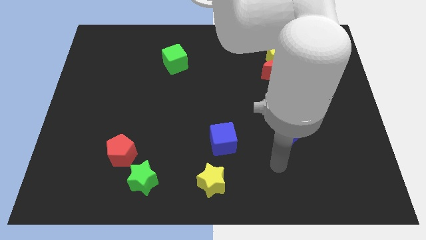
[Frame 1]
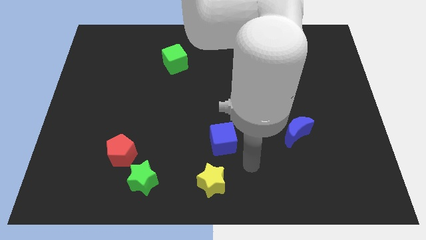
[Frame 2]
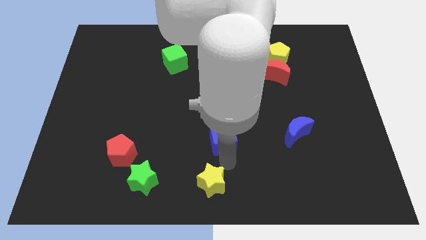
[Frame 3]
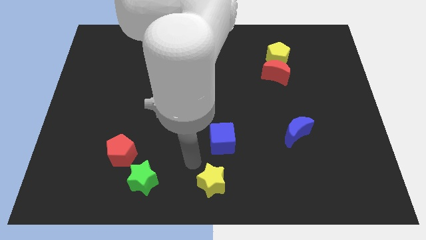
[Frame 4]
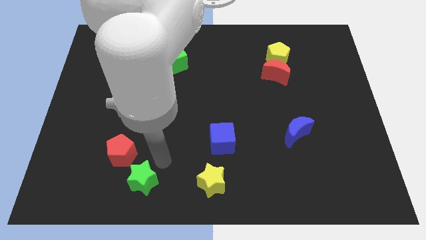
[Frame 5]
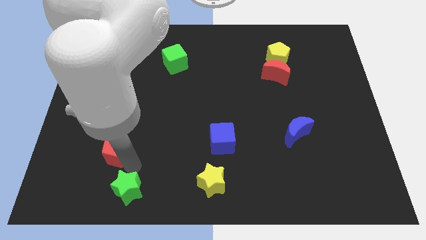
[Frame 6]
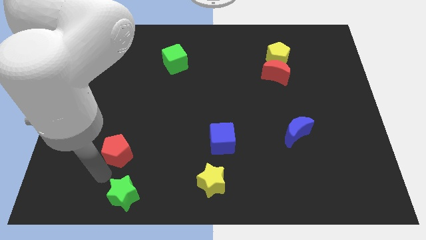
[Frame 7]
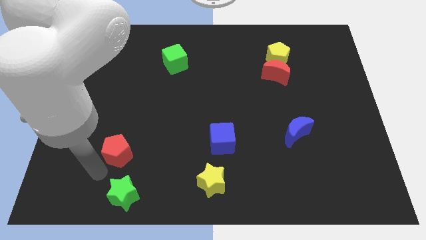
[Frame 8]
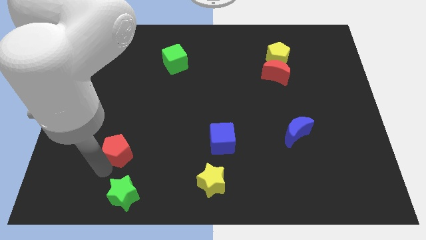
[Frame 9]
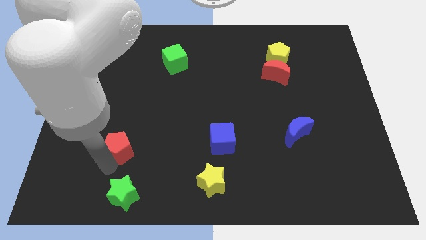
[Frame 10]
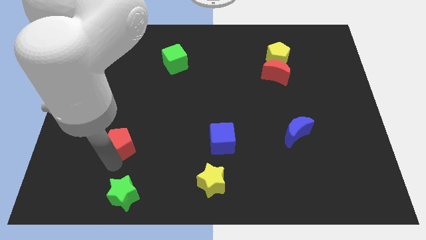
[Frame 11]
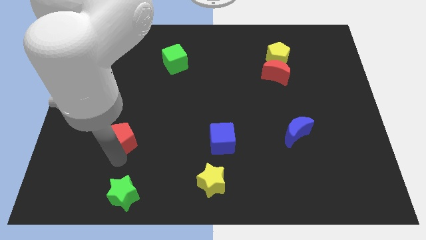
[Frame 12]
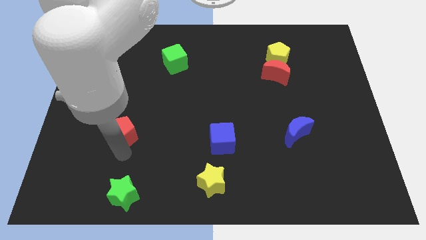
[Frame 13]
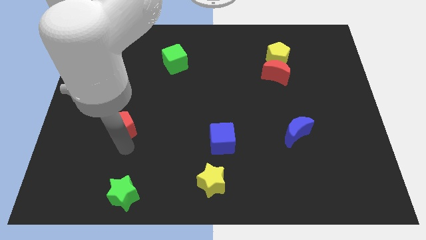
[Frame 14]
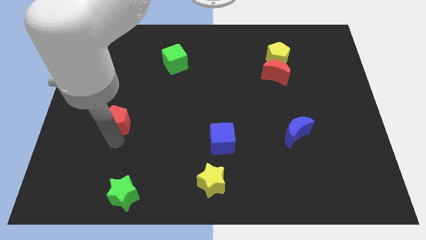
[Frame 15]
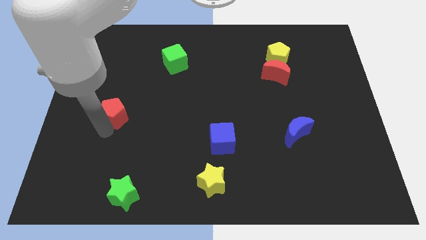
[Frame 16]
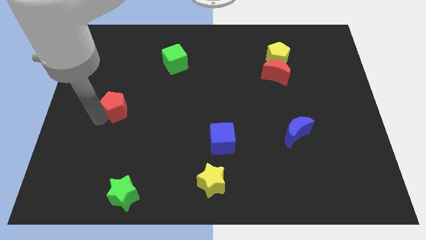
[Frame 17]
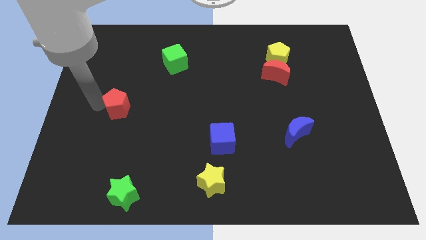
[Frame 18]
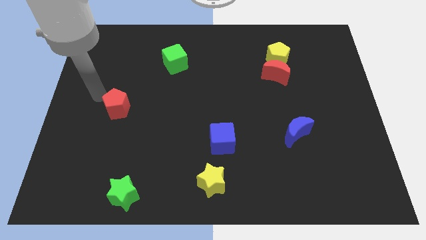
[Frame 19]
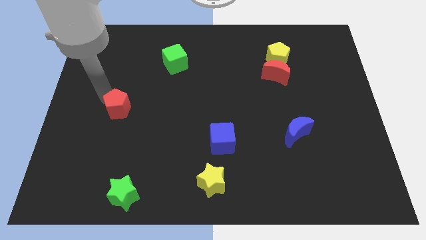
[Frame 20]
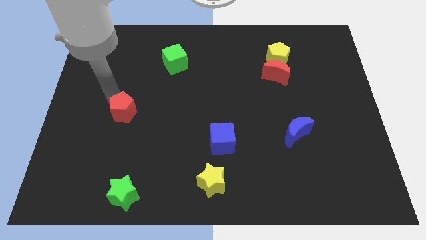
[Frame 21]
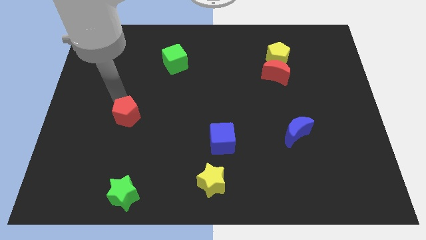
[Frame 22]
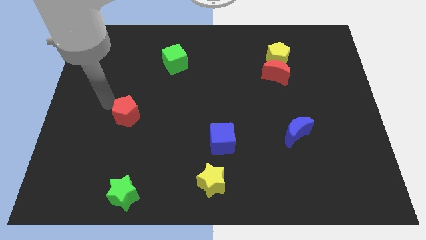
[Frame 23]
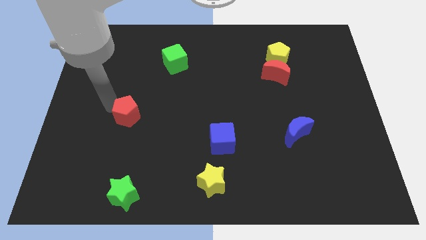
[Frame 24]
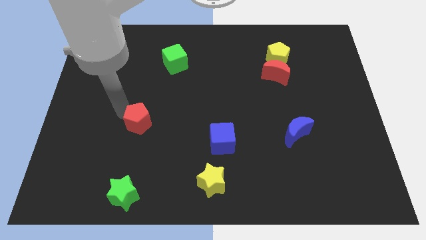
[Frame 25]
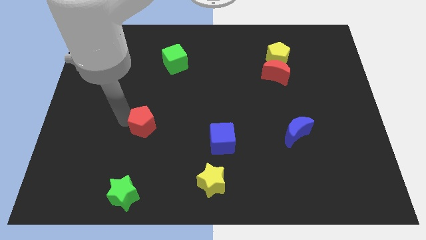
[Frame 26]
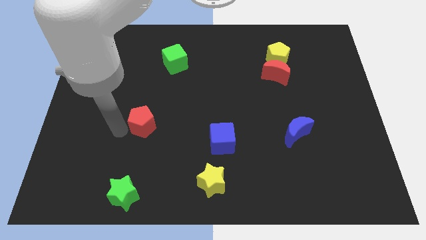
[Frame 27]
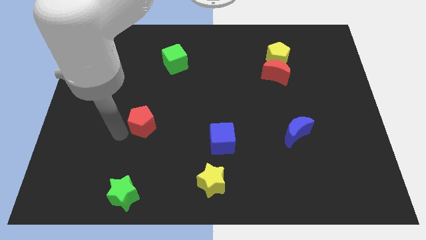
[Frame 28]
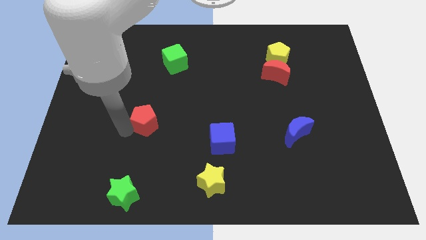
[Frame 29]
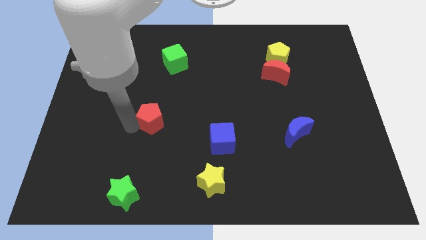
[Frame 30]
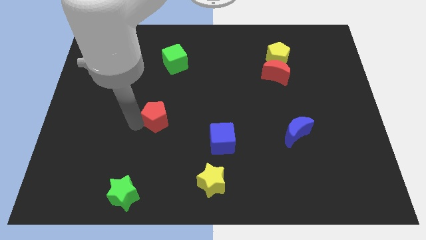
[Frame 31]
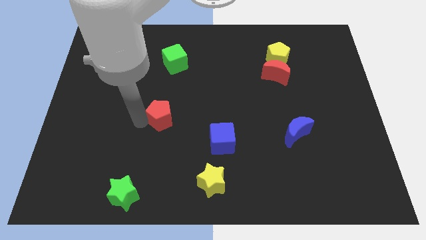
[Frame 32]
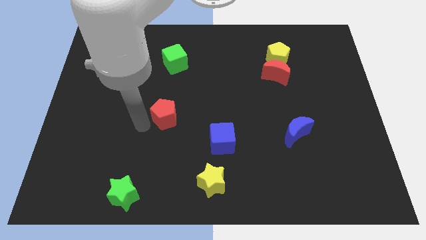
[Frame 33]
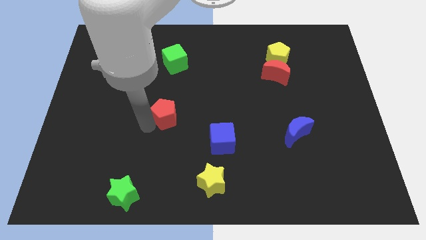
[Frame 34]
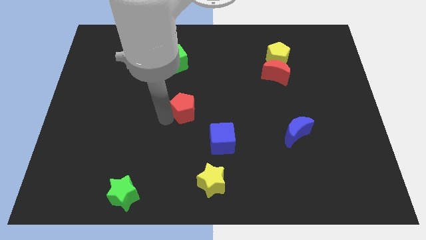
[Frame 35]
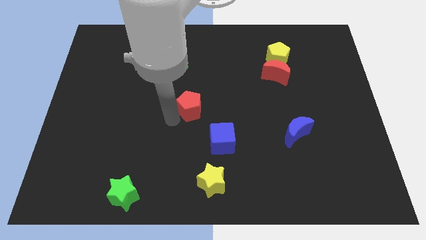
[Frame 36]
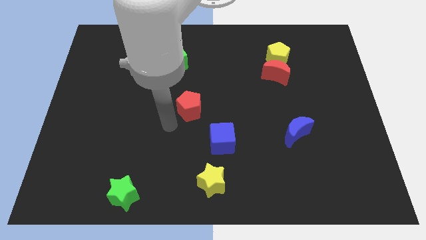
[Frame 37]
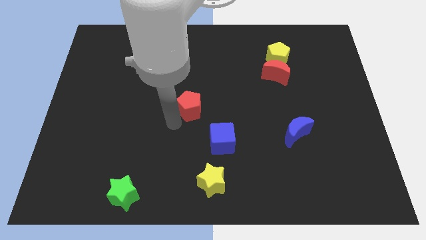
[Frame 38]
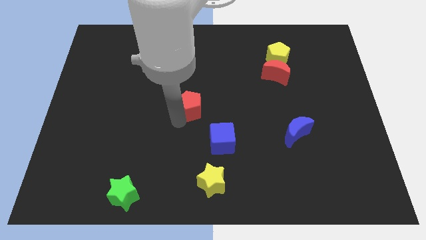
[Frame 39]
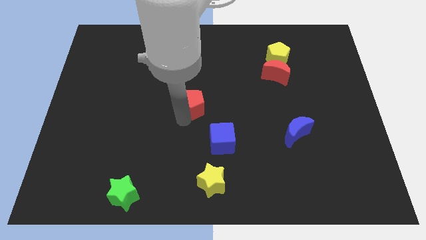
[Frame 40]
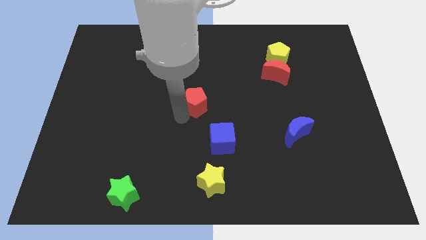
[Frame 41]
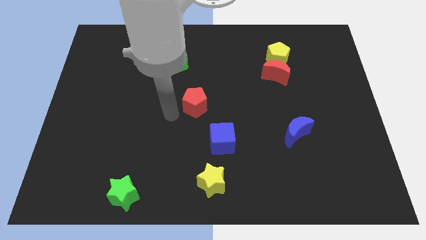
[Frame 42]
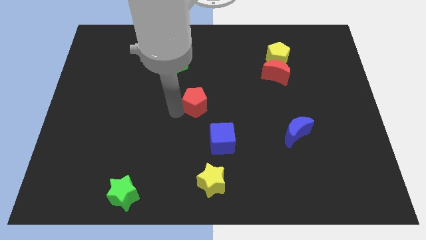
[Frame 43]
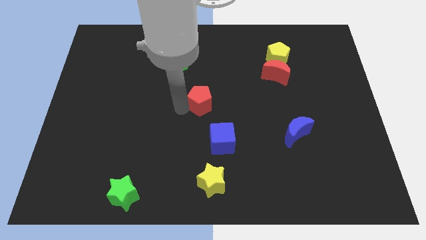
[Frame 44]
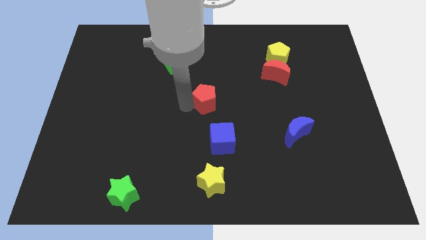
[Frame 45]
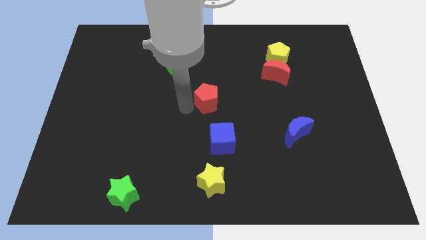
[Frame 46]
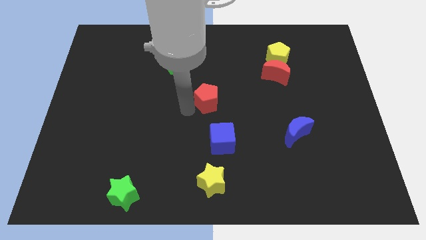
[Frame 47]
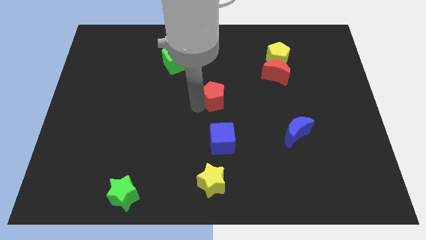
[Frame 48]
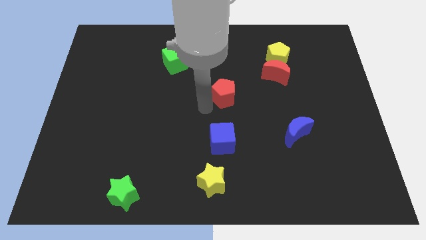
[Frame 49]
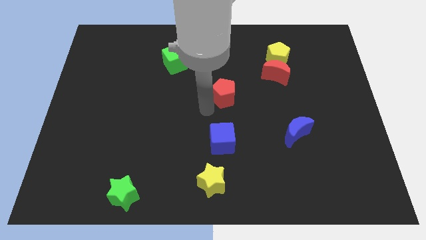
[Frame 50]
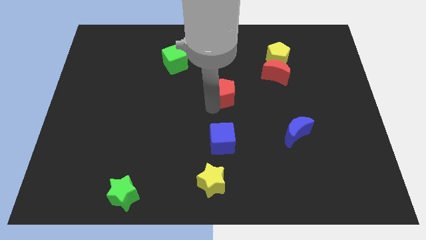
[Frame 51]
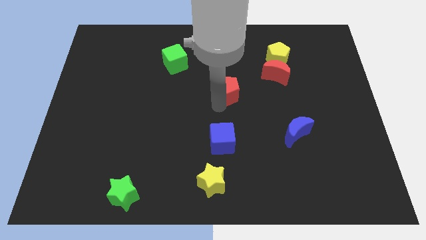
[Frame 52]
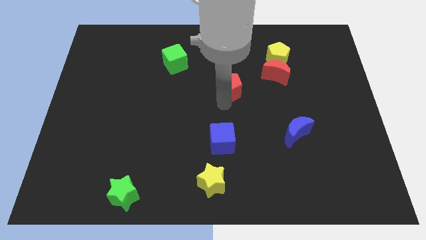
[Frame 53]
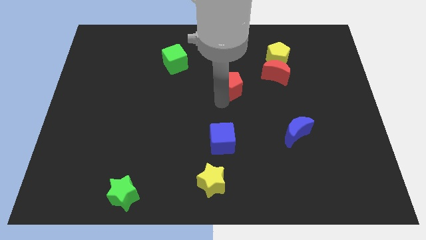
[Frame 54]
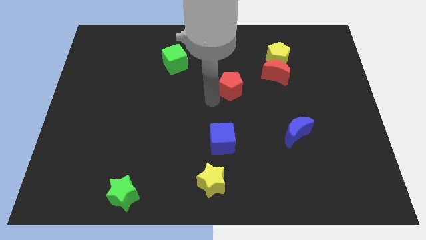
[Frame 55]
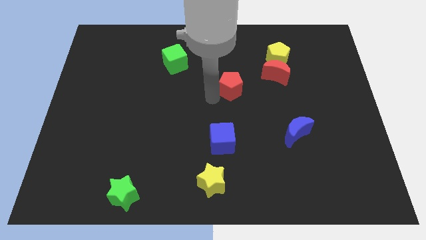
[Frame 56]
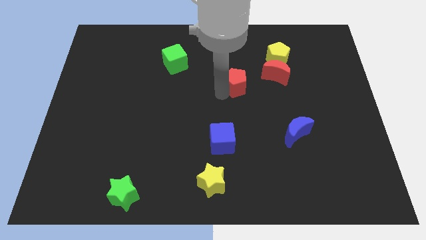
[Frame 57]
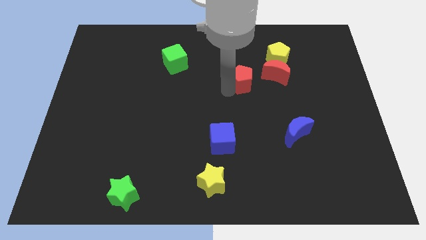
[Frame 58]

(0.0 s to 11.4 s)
put the red pentagon to the bottom left side of the yellow pentagon

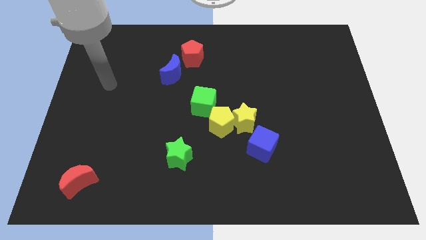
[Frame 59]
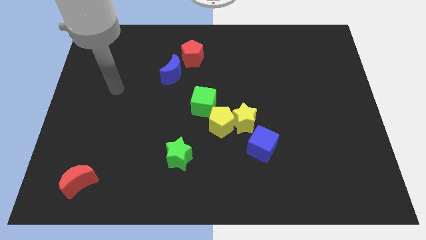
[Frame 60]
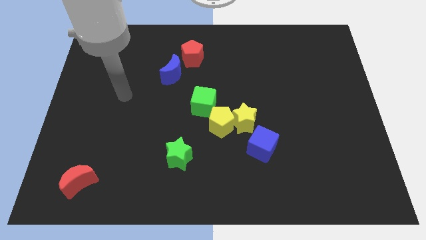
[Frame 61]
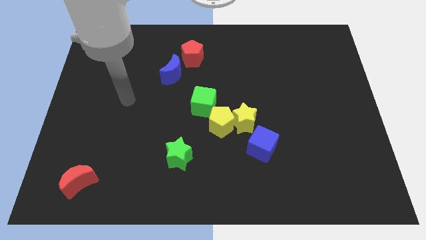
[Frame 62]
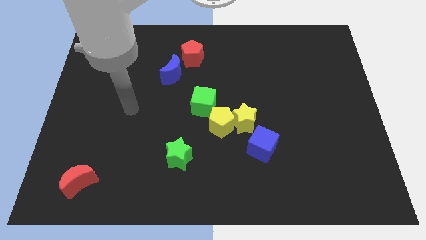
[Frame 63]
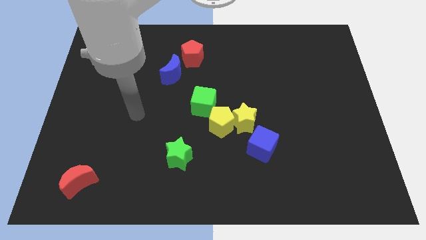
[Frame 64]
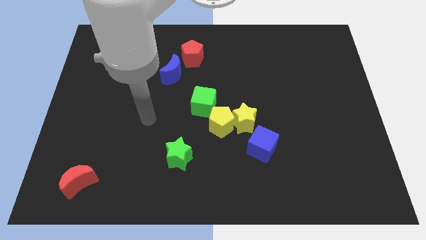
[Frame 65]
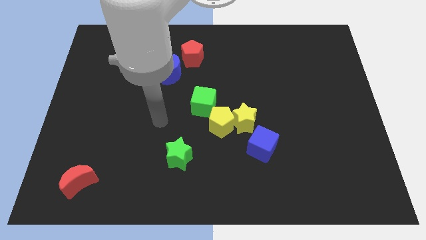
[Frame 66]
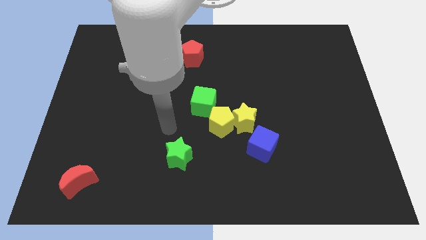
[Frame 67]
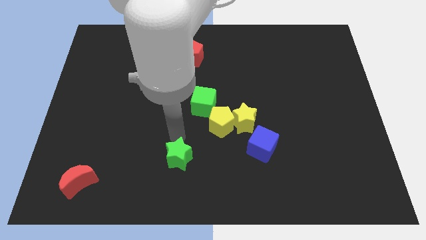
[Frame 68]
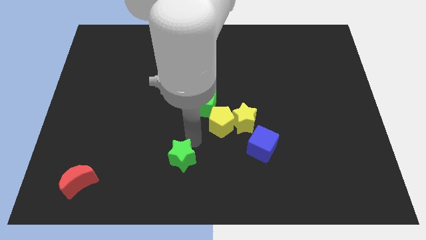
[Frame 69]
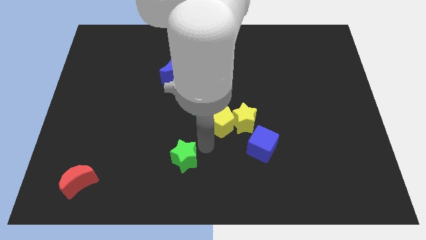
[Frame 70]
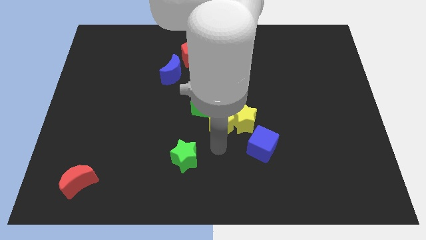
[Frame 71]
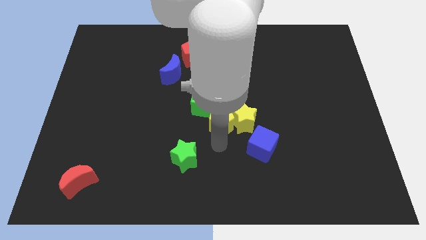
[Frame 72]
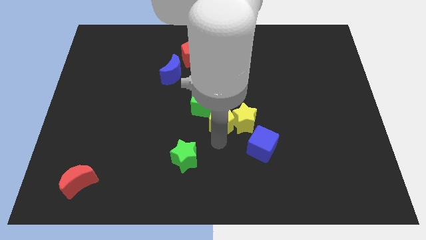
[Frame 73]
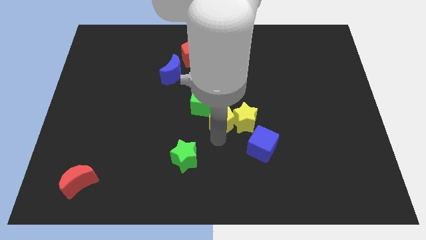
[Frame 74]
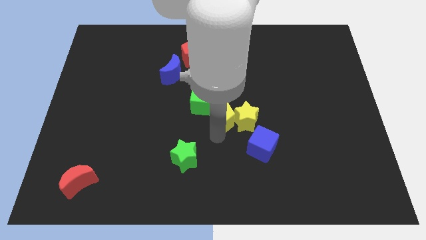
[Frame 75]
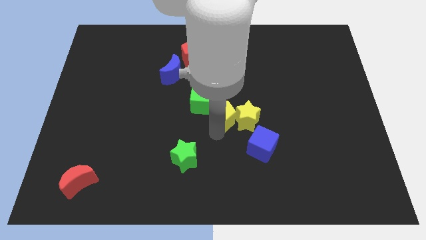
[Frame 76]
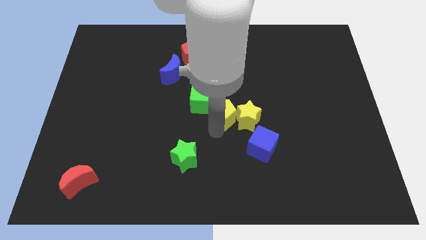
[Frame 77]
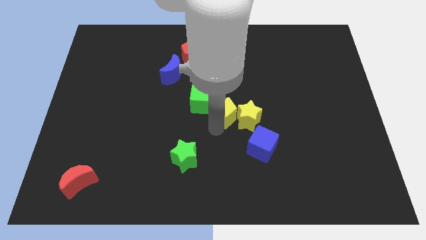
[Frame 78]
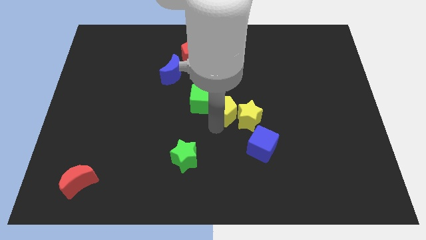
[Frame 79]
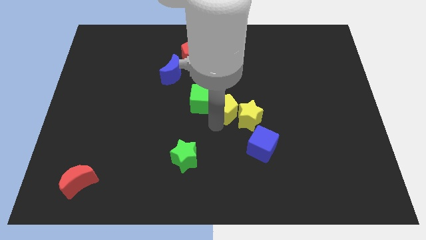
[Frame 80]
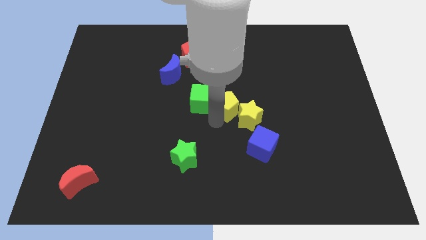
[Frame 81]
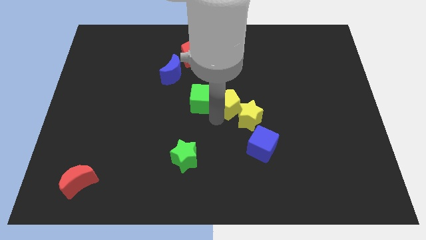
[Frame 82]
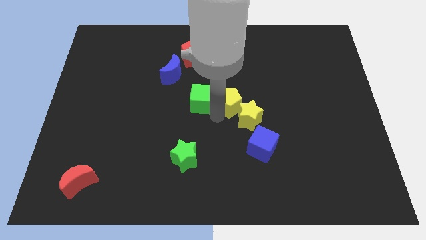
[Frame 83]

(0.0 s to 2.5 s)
put the yellow pentagon to the top right of the green cube
